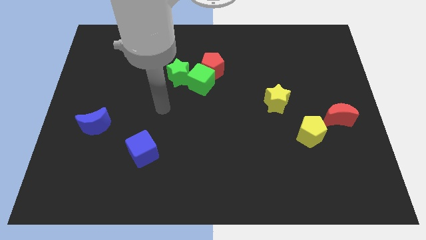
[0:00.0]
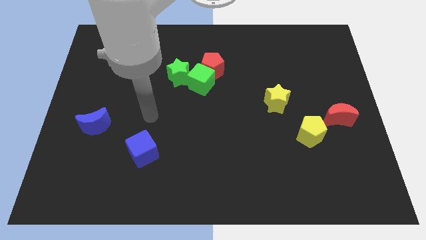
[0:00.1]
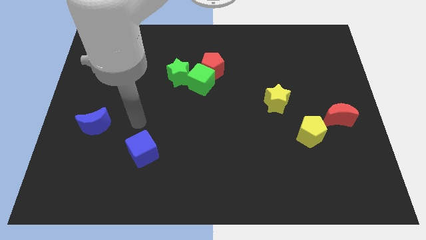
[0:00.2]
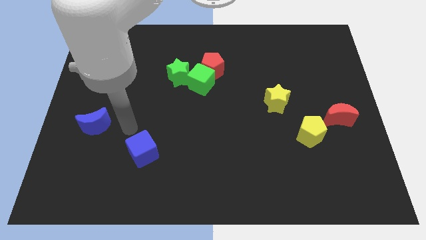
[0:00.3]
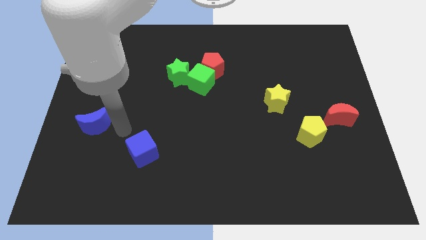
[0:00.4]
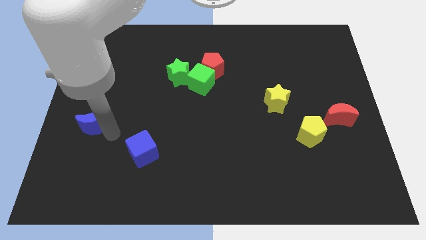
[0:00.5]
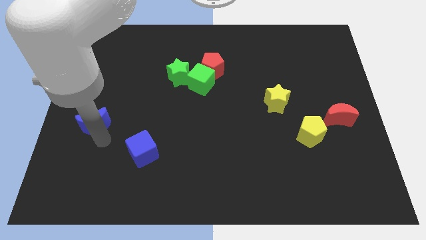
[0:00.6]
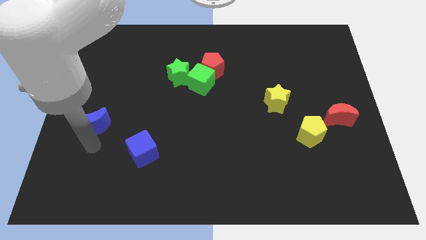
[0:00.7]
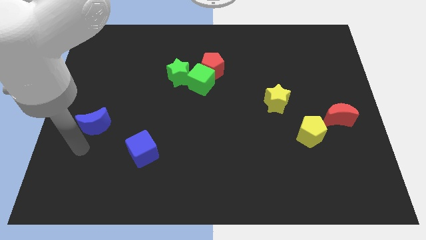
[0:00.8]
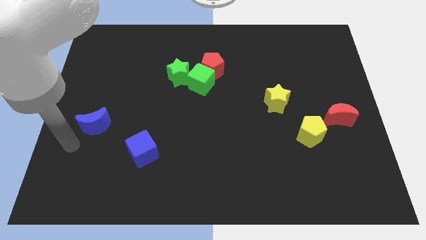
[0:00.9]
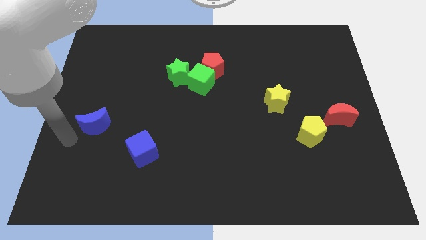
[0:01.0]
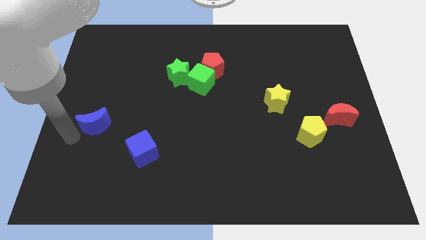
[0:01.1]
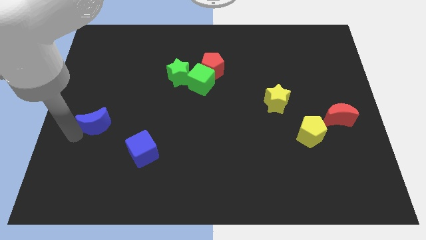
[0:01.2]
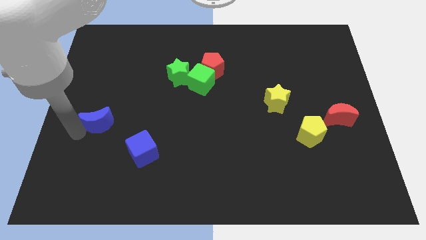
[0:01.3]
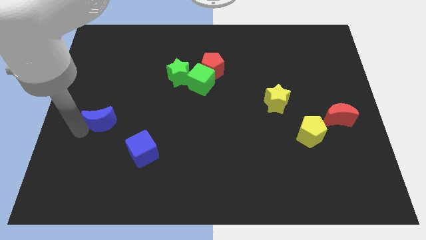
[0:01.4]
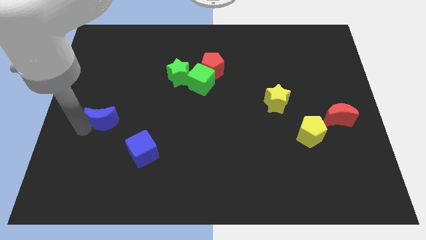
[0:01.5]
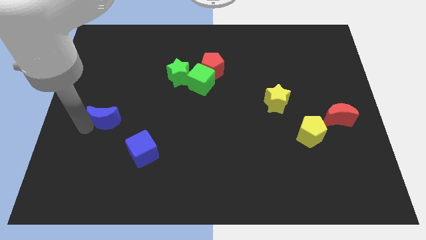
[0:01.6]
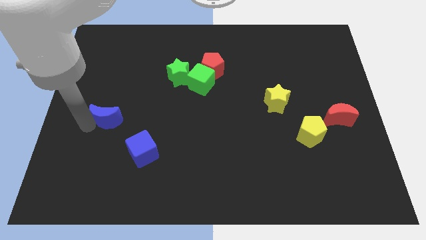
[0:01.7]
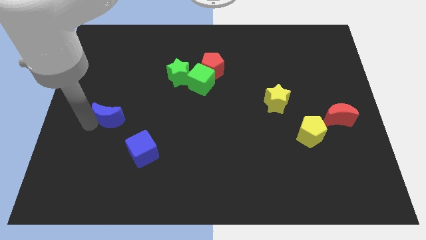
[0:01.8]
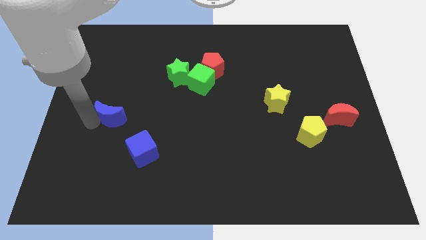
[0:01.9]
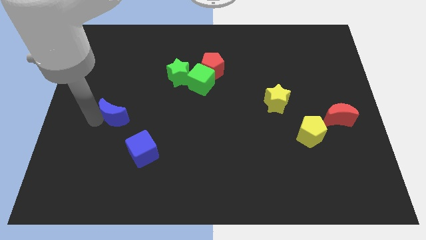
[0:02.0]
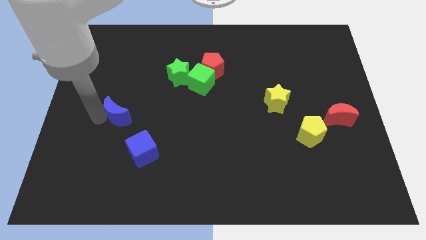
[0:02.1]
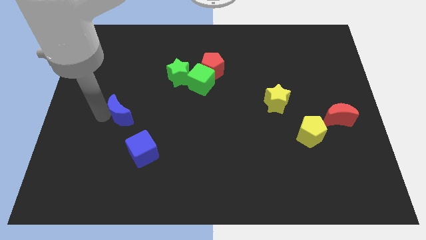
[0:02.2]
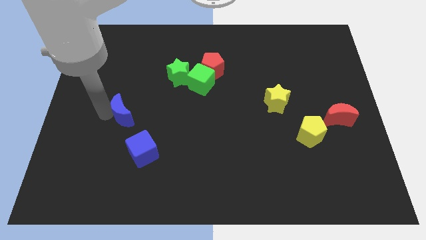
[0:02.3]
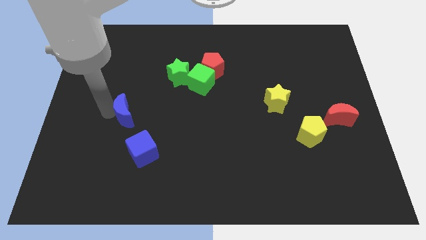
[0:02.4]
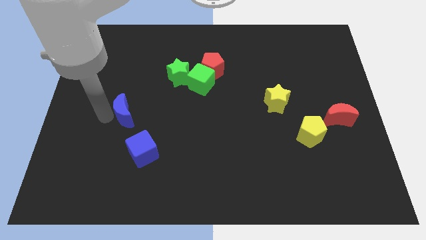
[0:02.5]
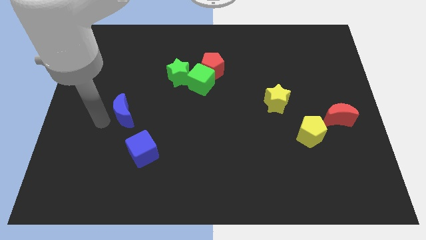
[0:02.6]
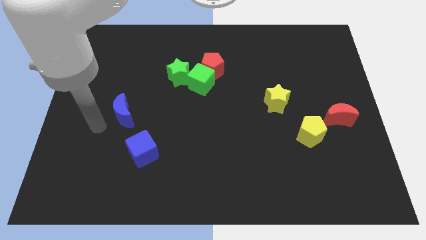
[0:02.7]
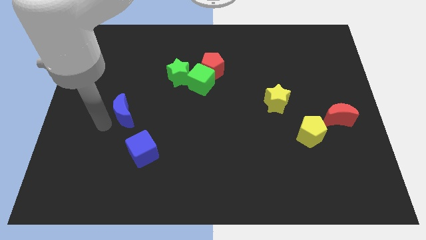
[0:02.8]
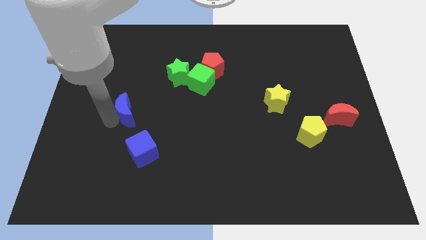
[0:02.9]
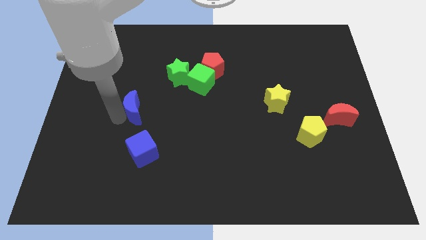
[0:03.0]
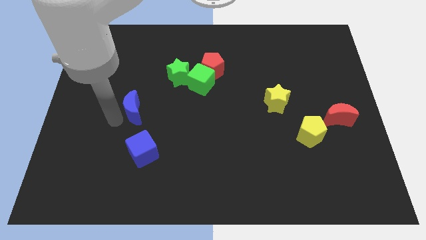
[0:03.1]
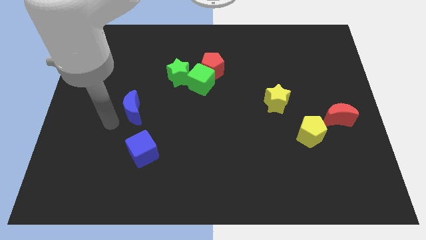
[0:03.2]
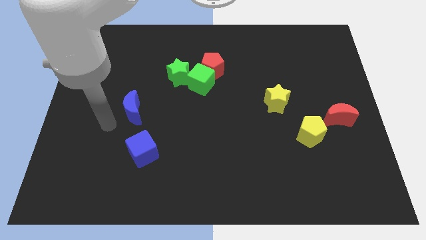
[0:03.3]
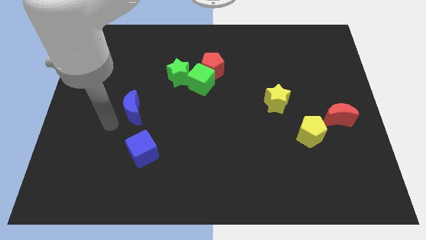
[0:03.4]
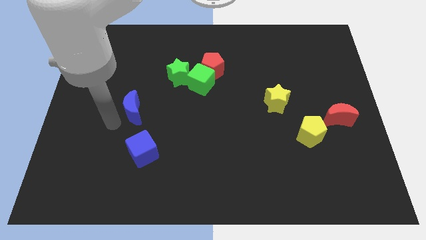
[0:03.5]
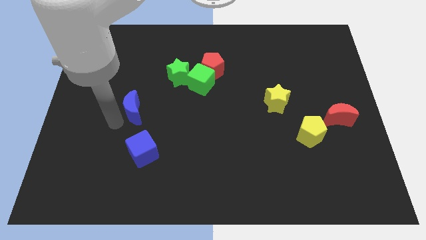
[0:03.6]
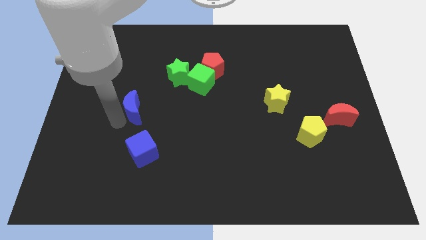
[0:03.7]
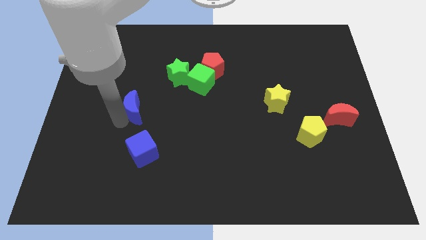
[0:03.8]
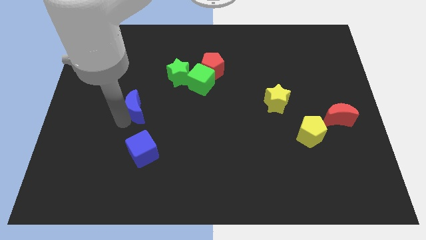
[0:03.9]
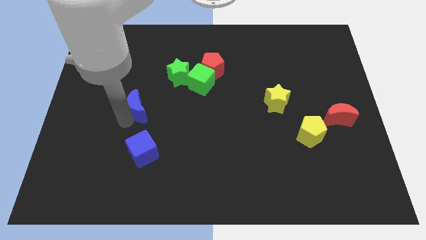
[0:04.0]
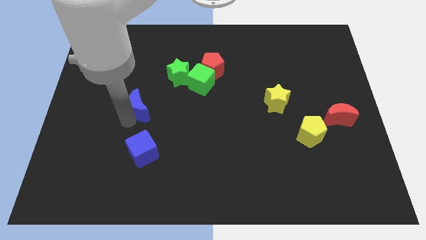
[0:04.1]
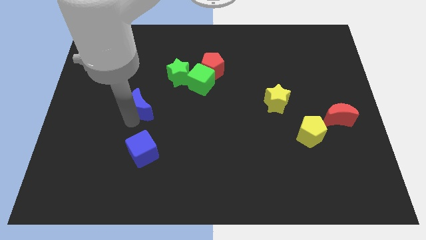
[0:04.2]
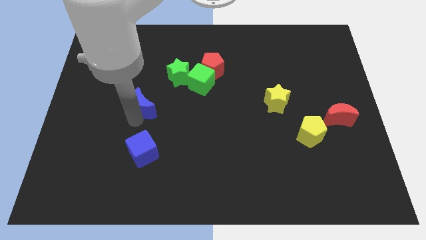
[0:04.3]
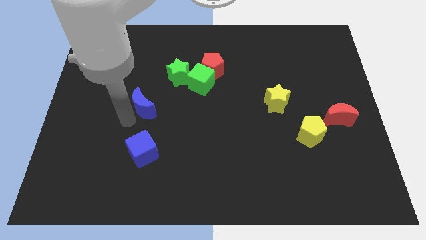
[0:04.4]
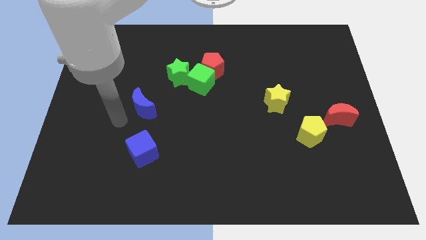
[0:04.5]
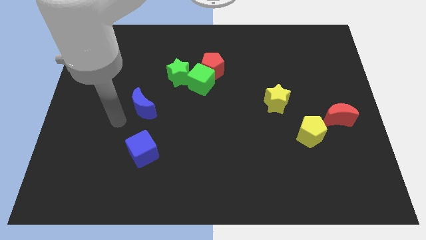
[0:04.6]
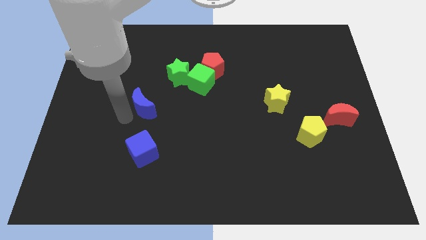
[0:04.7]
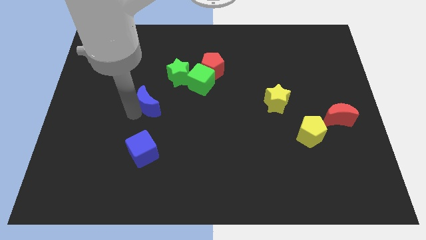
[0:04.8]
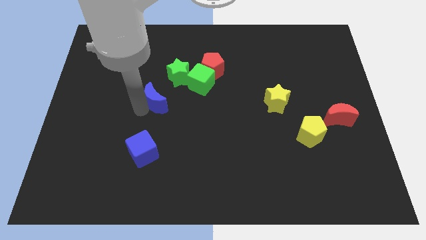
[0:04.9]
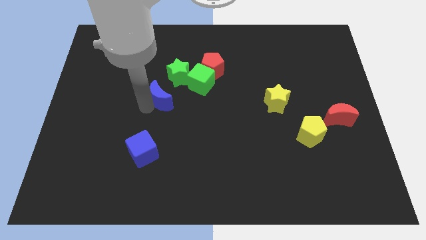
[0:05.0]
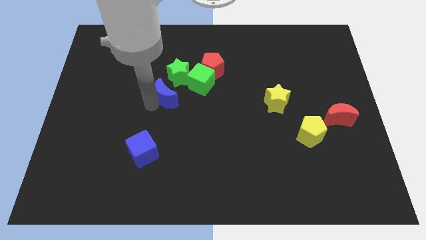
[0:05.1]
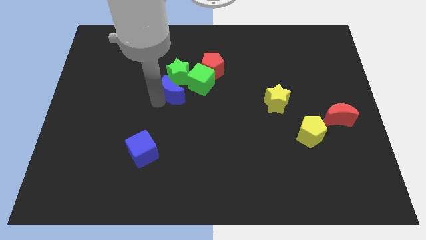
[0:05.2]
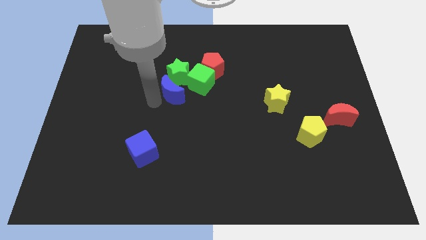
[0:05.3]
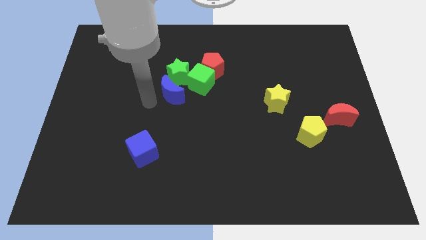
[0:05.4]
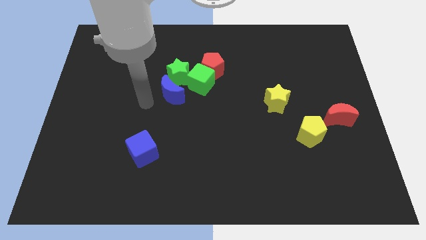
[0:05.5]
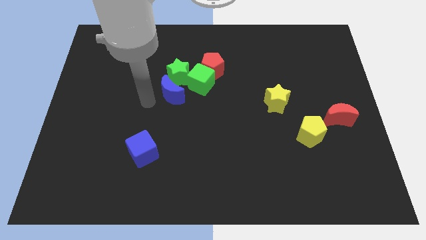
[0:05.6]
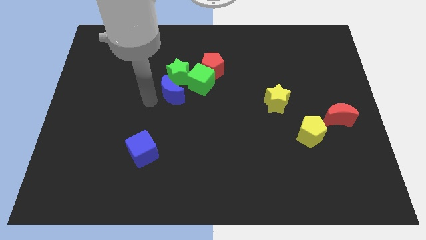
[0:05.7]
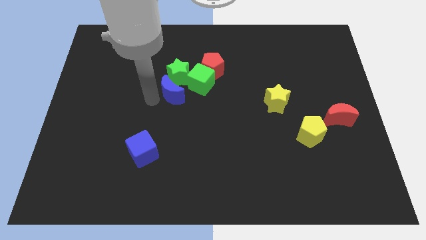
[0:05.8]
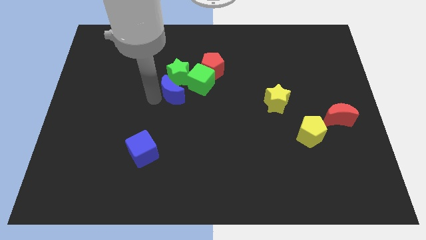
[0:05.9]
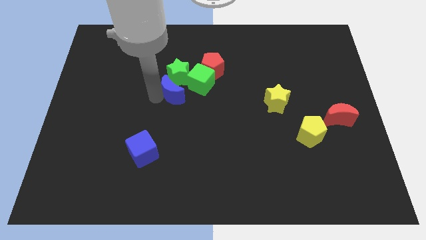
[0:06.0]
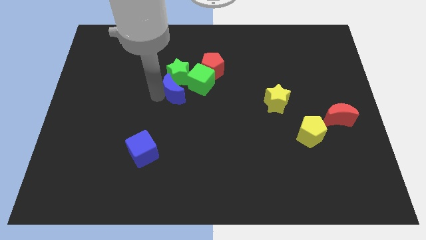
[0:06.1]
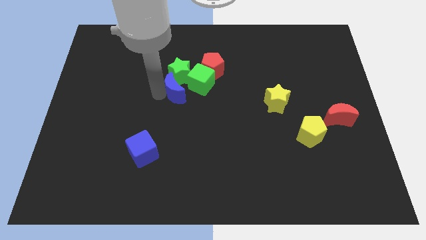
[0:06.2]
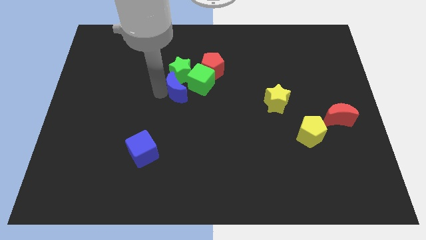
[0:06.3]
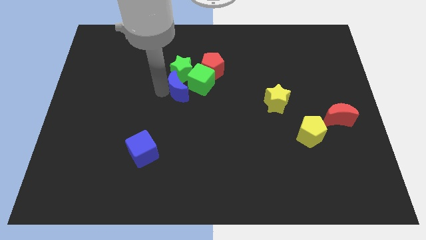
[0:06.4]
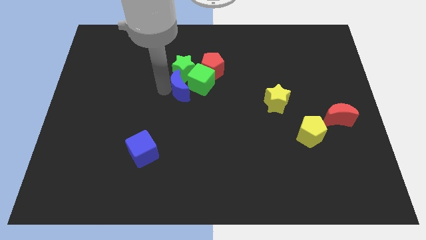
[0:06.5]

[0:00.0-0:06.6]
slide the blue moon towards the green cube

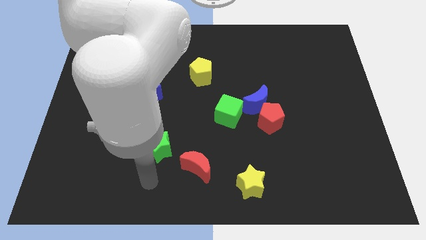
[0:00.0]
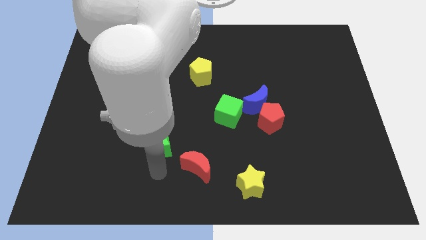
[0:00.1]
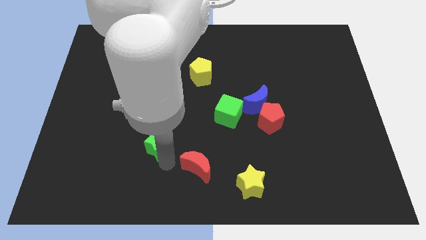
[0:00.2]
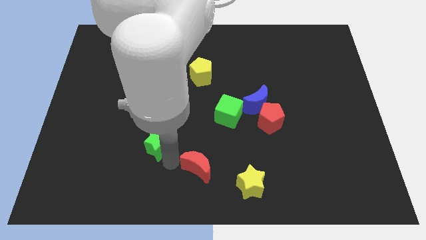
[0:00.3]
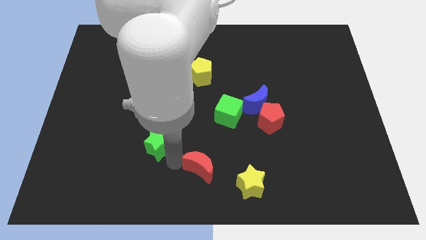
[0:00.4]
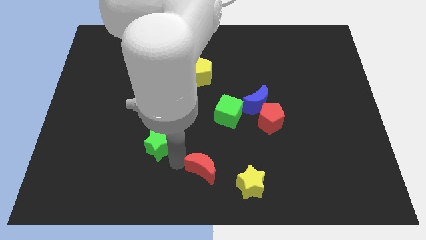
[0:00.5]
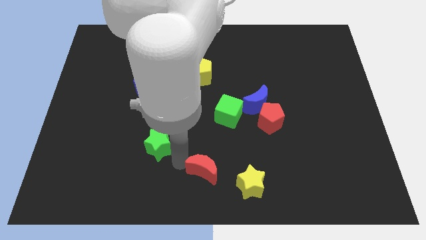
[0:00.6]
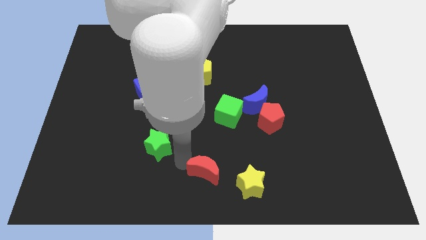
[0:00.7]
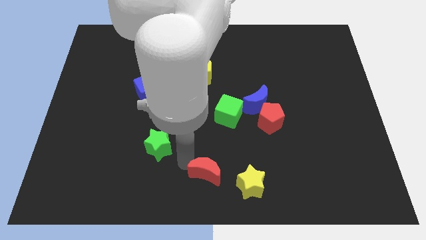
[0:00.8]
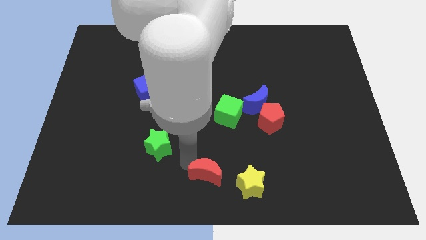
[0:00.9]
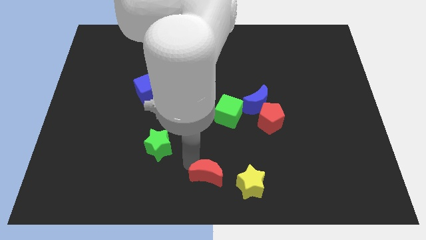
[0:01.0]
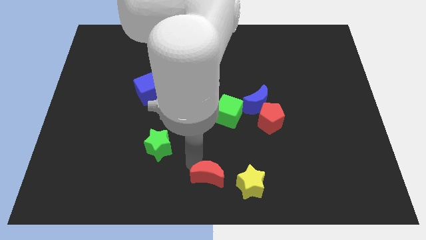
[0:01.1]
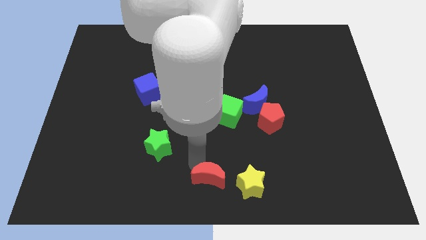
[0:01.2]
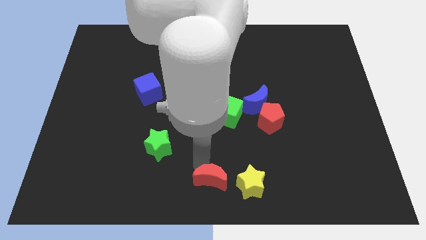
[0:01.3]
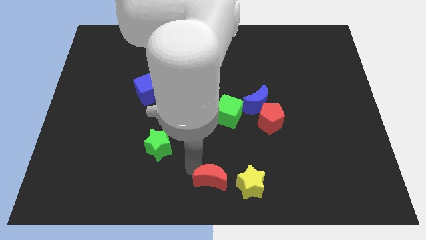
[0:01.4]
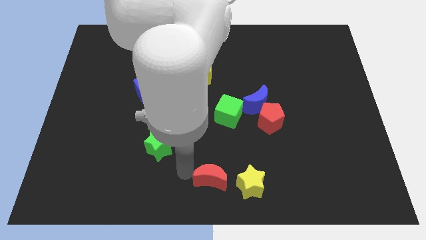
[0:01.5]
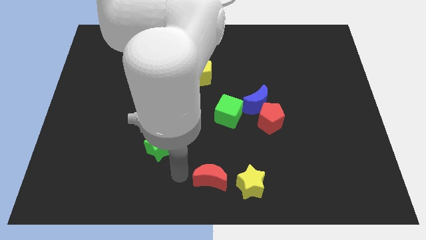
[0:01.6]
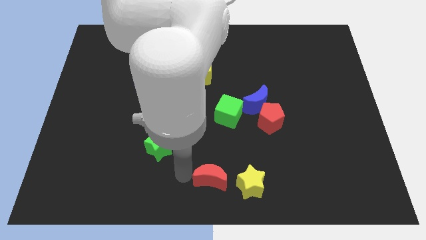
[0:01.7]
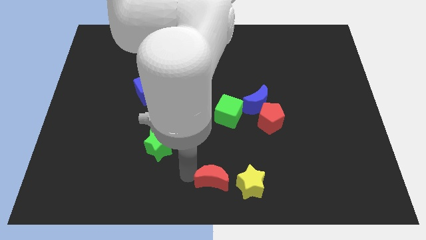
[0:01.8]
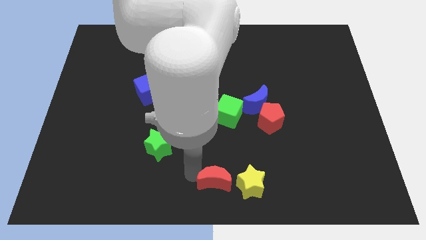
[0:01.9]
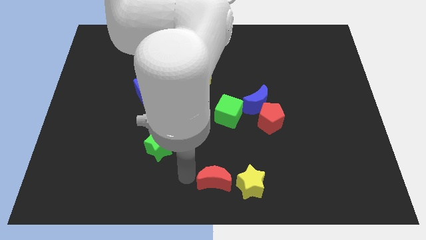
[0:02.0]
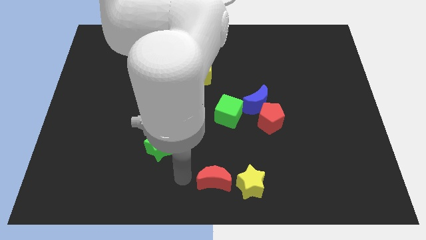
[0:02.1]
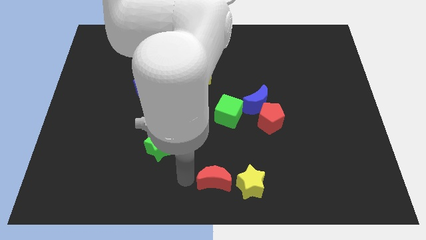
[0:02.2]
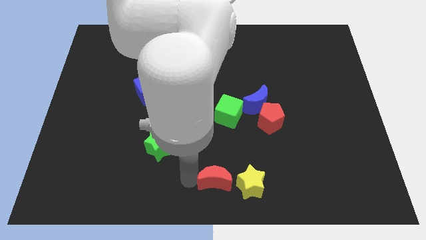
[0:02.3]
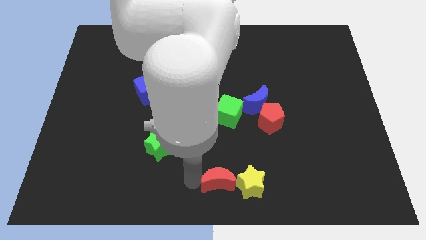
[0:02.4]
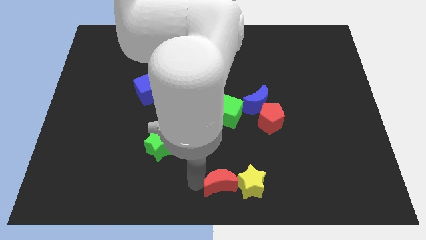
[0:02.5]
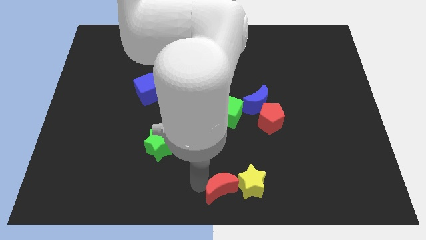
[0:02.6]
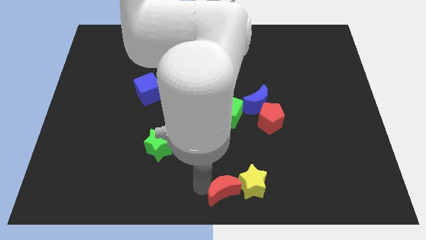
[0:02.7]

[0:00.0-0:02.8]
push the red moon to the yellow star
